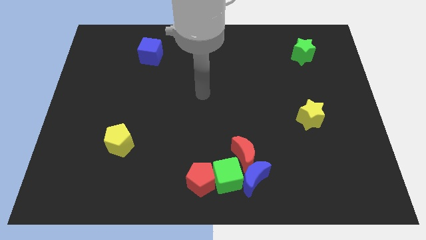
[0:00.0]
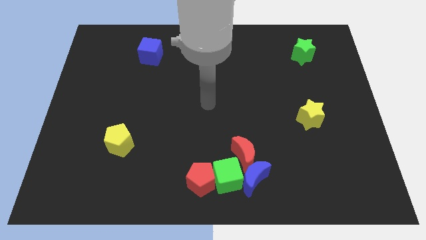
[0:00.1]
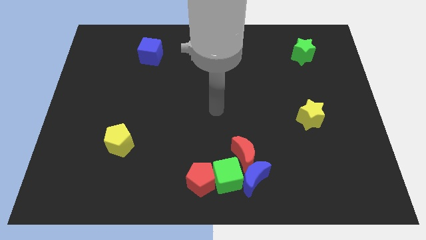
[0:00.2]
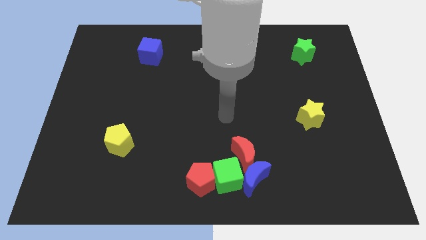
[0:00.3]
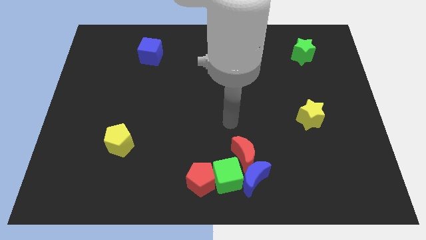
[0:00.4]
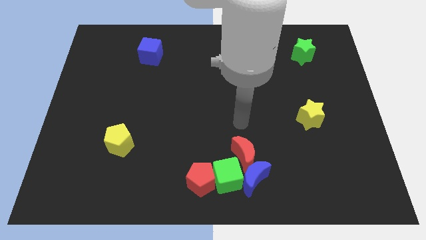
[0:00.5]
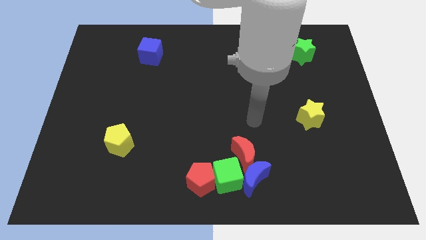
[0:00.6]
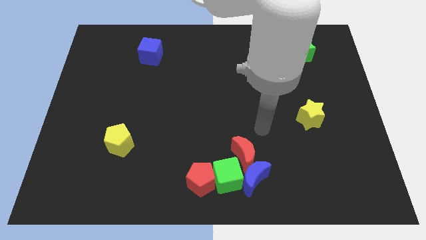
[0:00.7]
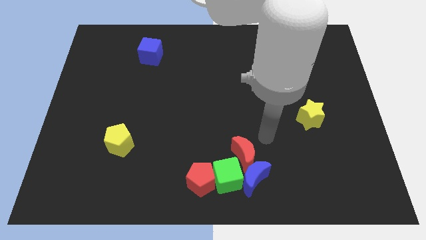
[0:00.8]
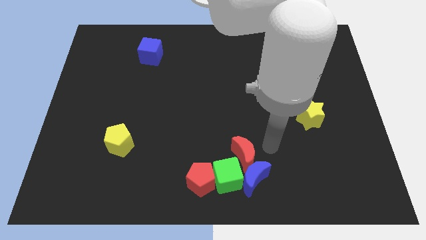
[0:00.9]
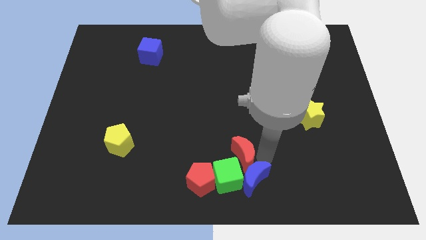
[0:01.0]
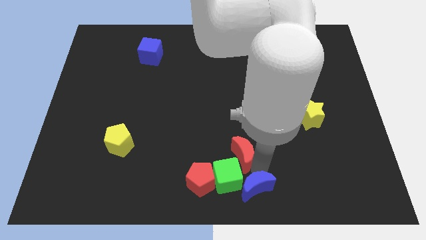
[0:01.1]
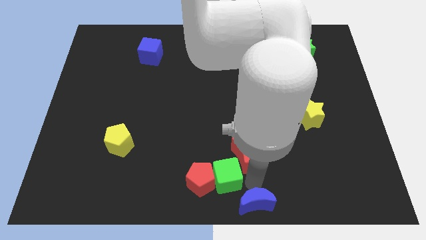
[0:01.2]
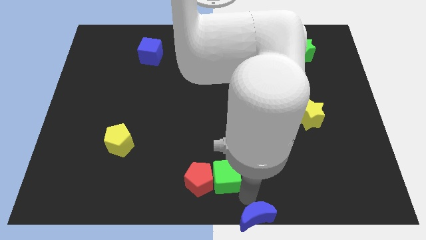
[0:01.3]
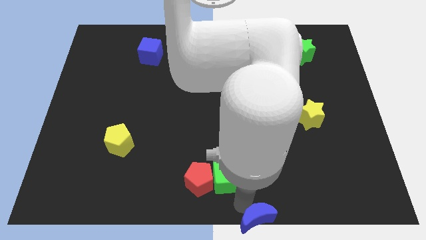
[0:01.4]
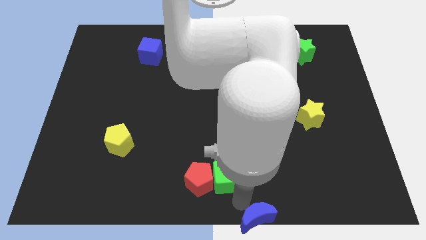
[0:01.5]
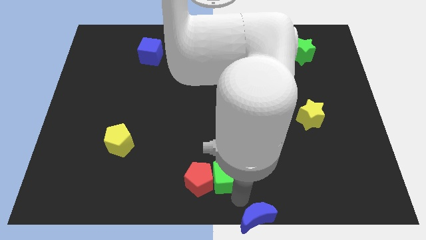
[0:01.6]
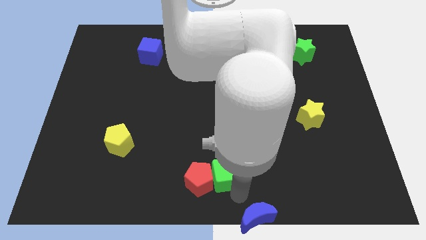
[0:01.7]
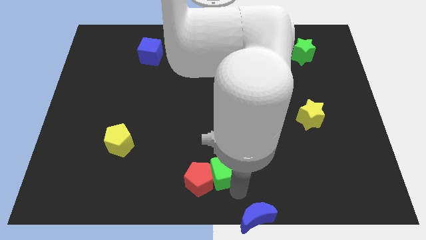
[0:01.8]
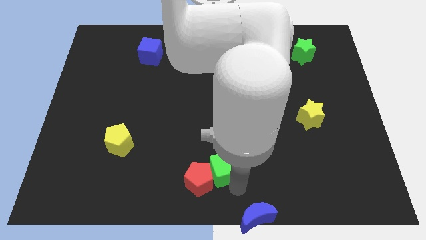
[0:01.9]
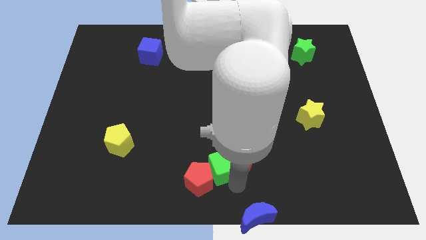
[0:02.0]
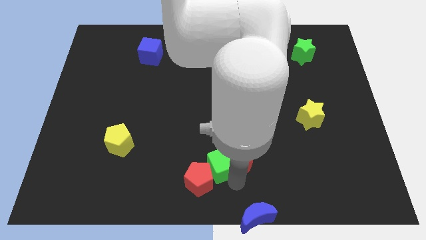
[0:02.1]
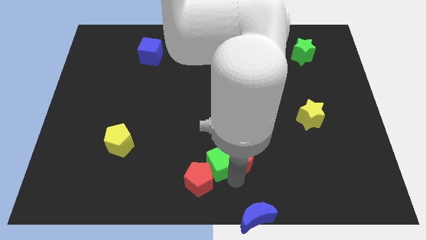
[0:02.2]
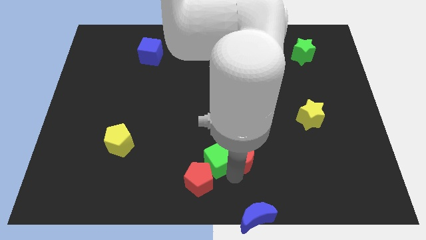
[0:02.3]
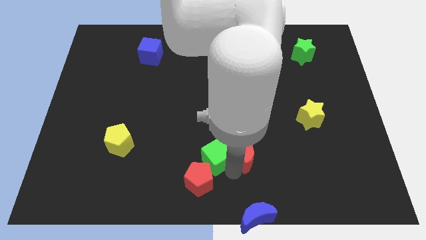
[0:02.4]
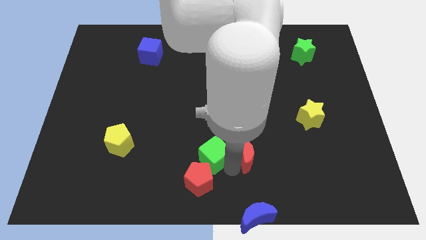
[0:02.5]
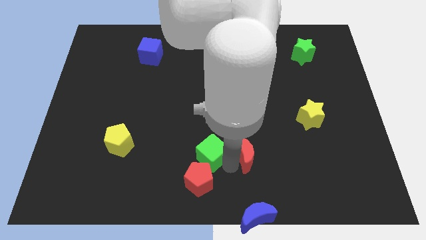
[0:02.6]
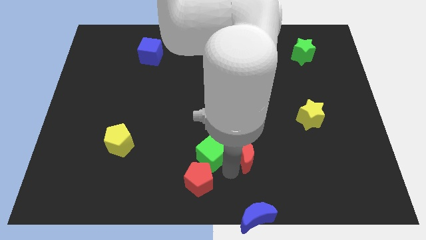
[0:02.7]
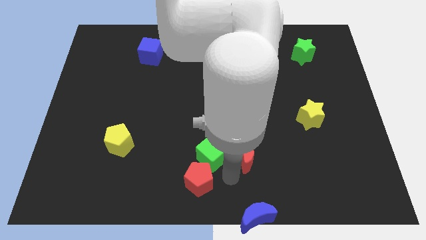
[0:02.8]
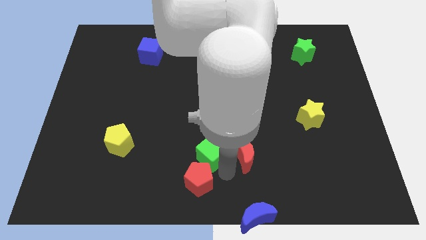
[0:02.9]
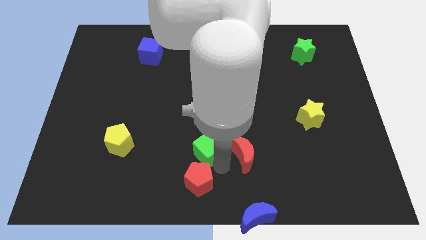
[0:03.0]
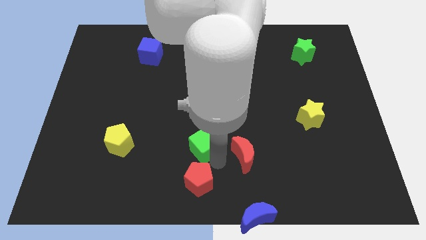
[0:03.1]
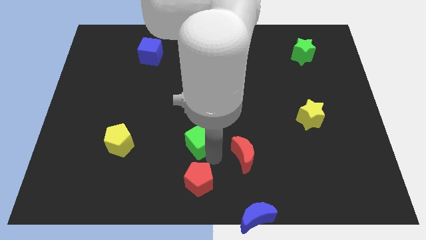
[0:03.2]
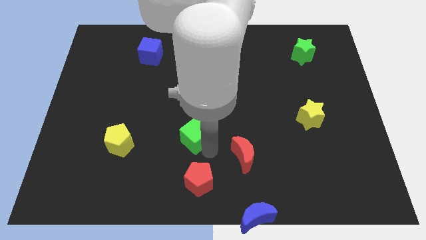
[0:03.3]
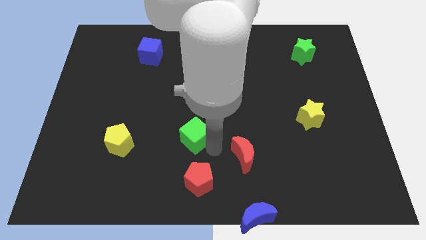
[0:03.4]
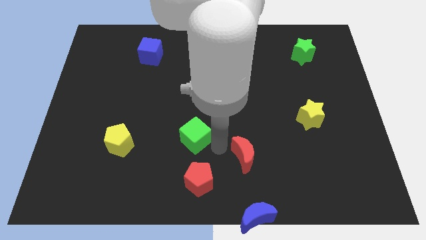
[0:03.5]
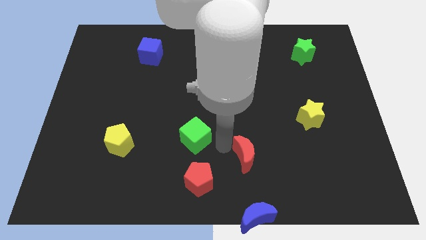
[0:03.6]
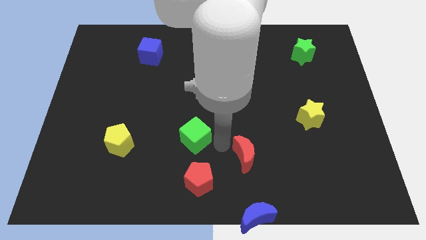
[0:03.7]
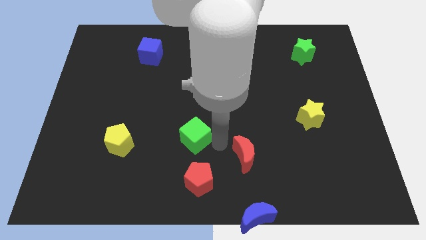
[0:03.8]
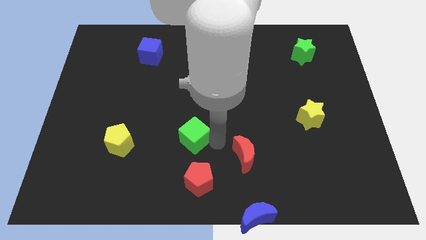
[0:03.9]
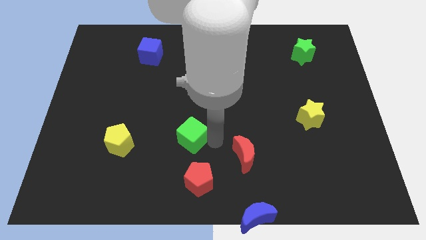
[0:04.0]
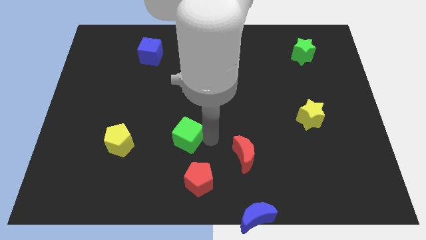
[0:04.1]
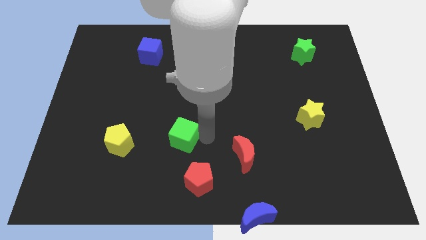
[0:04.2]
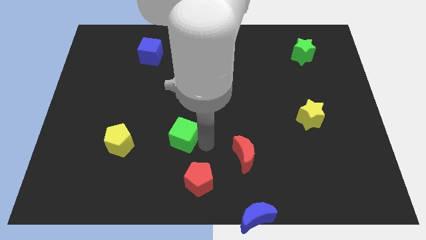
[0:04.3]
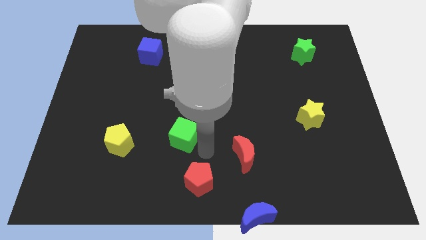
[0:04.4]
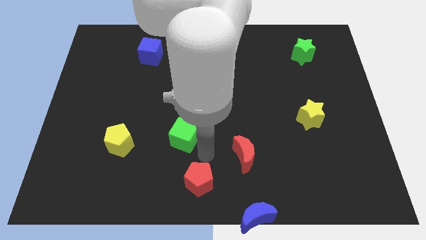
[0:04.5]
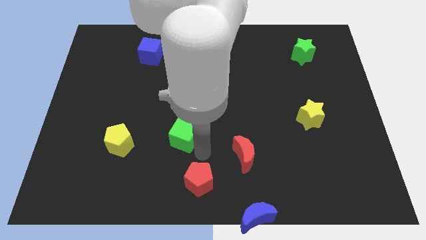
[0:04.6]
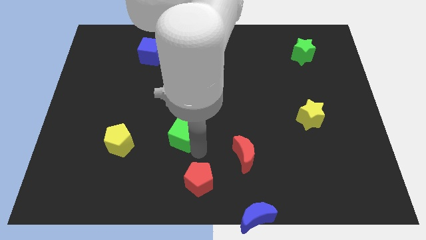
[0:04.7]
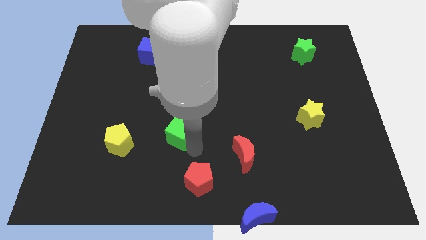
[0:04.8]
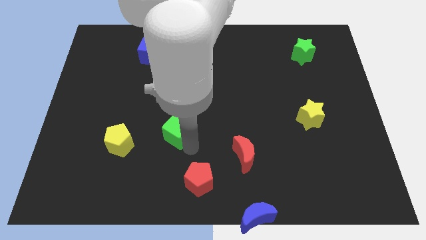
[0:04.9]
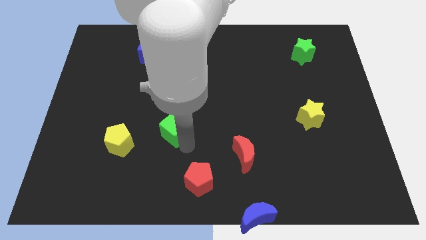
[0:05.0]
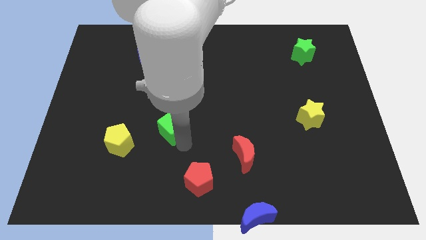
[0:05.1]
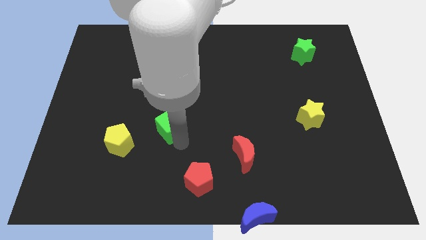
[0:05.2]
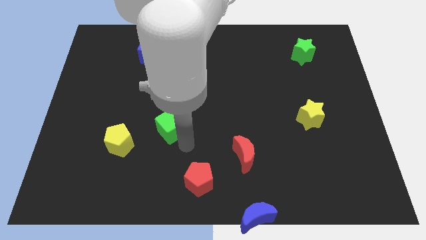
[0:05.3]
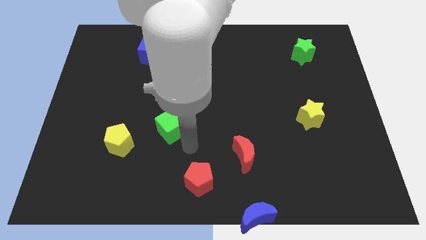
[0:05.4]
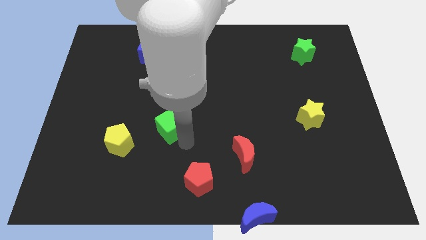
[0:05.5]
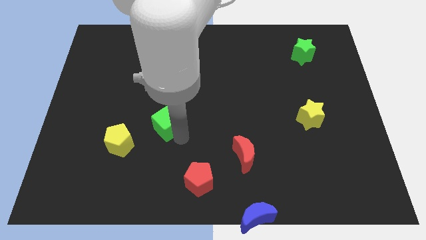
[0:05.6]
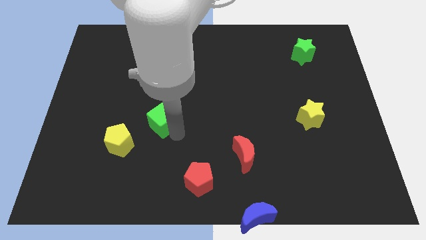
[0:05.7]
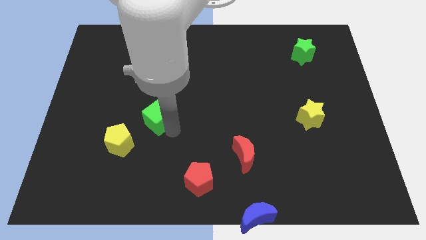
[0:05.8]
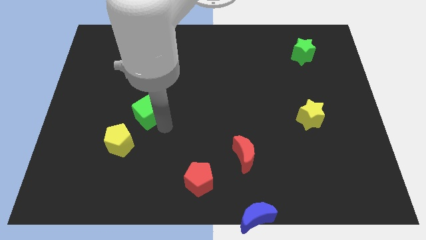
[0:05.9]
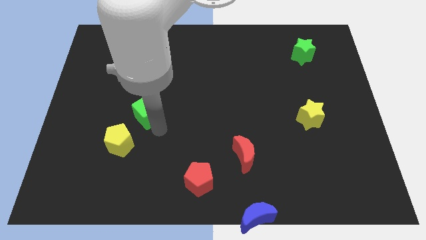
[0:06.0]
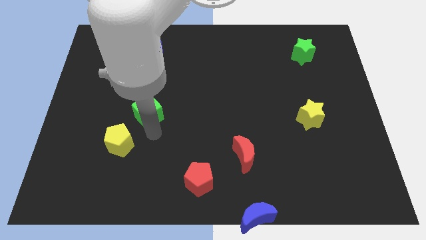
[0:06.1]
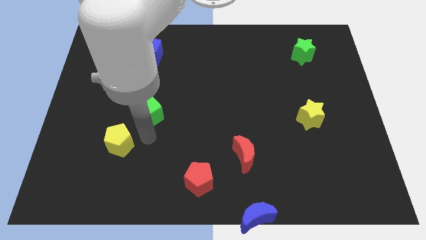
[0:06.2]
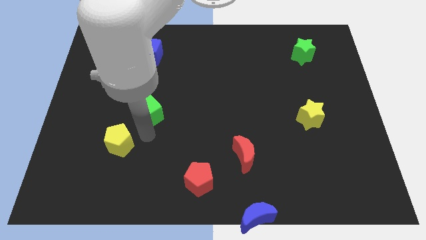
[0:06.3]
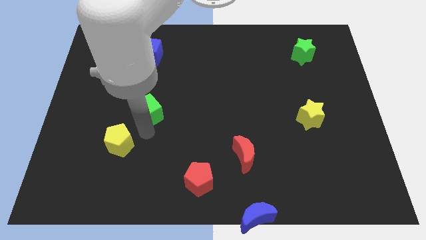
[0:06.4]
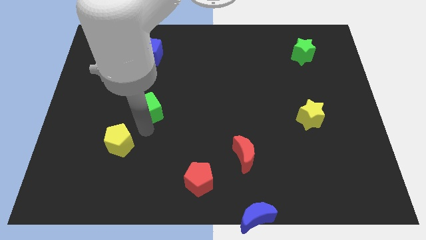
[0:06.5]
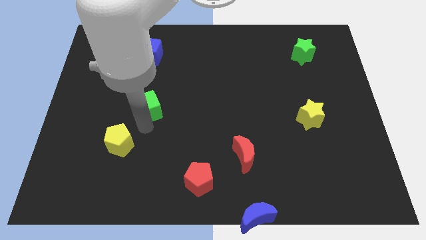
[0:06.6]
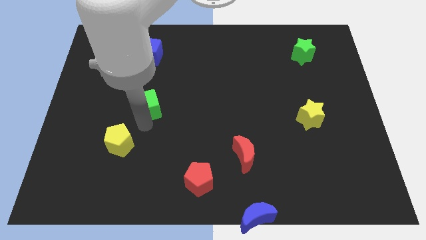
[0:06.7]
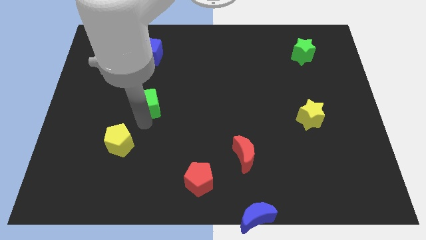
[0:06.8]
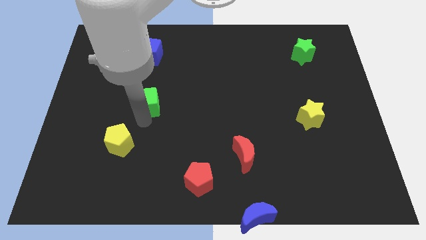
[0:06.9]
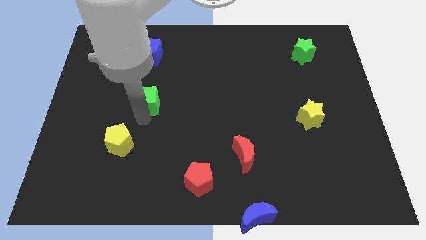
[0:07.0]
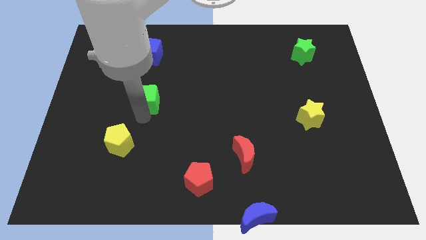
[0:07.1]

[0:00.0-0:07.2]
move the green cube to the bottom side of the blue cube
